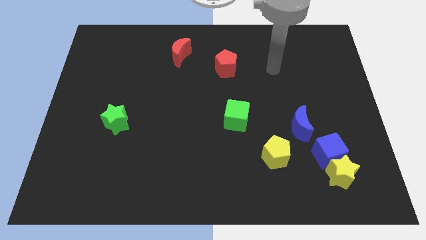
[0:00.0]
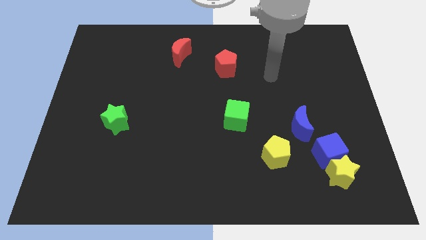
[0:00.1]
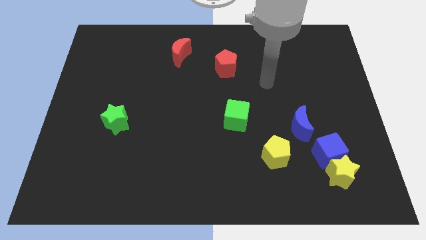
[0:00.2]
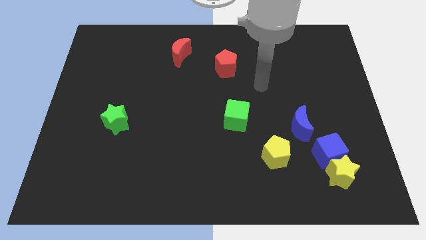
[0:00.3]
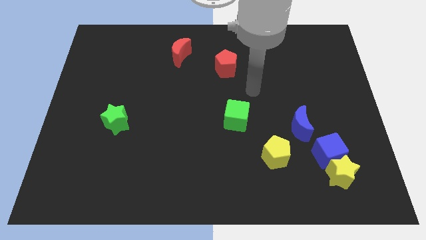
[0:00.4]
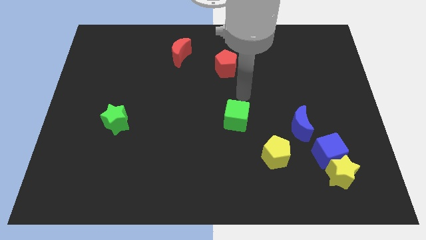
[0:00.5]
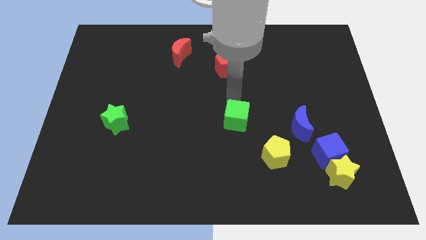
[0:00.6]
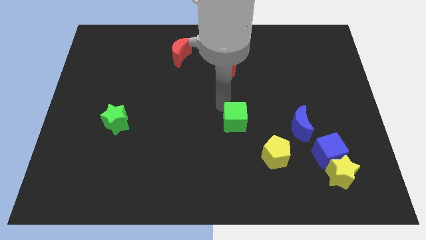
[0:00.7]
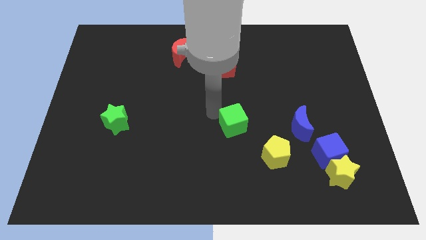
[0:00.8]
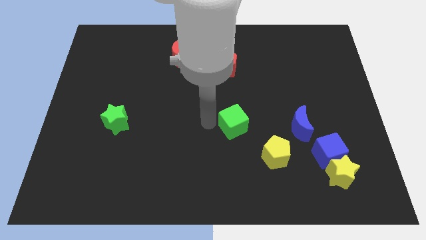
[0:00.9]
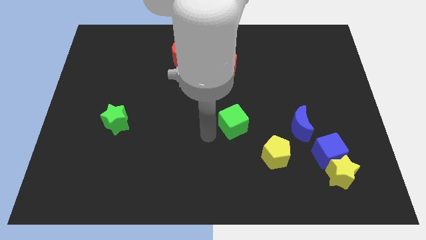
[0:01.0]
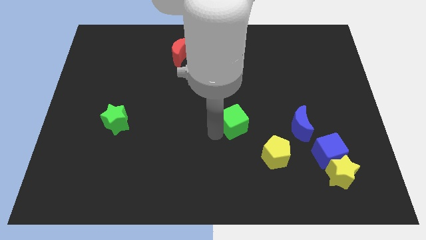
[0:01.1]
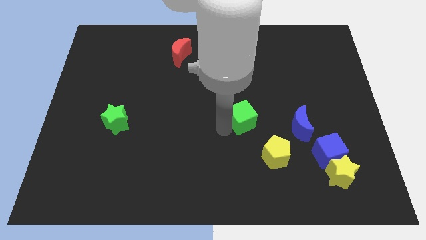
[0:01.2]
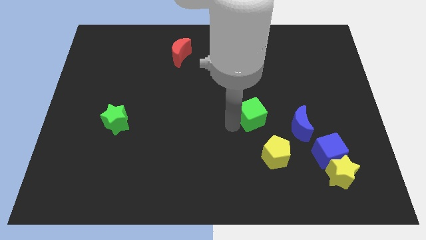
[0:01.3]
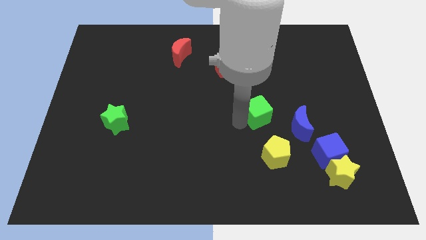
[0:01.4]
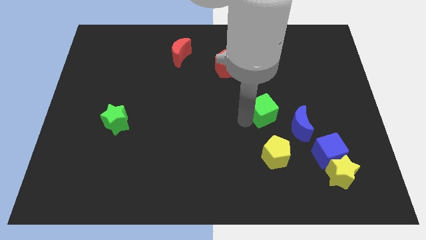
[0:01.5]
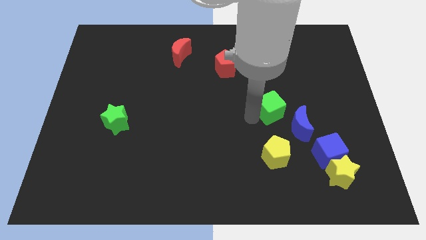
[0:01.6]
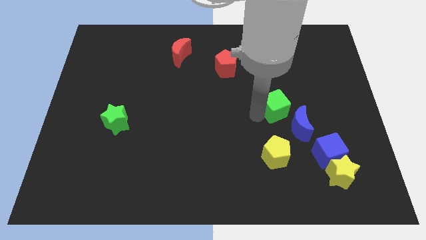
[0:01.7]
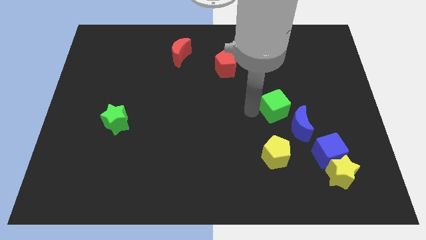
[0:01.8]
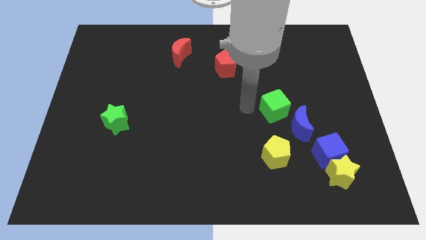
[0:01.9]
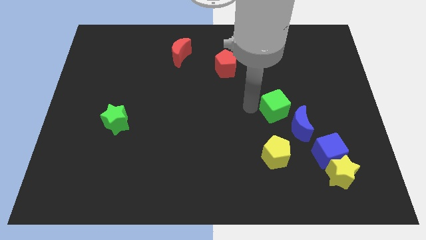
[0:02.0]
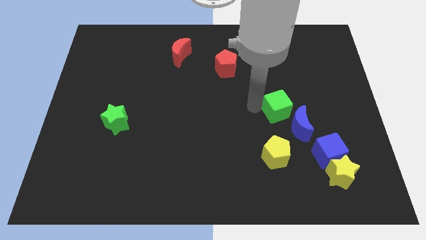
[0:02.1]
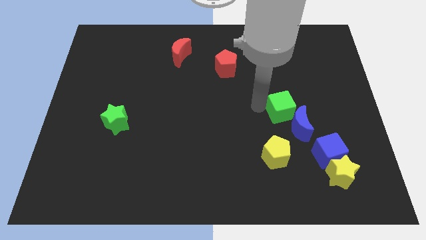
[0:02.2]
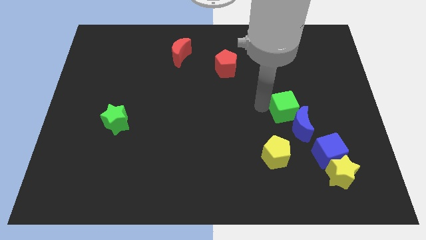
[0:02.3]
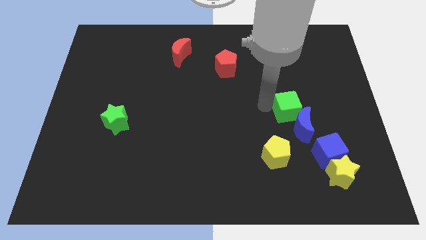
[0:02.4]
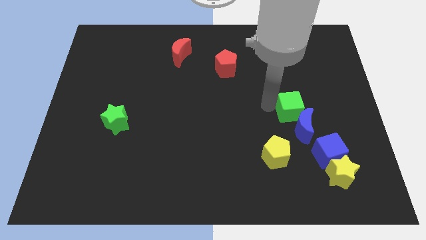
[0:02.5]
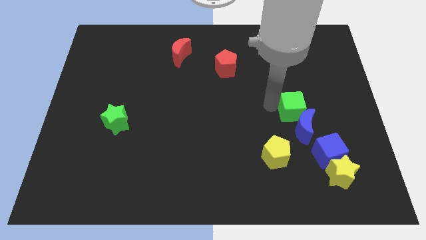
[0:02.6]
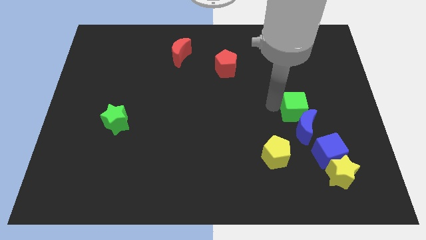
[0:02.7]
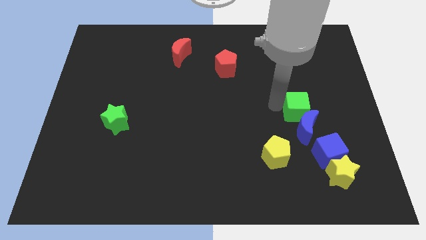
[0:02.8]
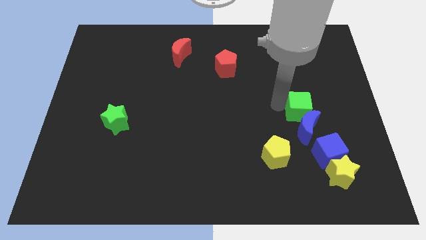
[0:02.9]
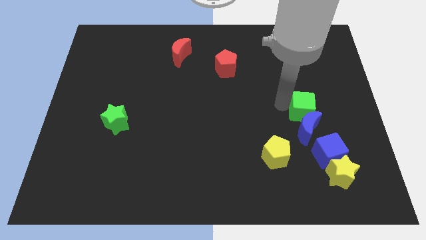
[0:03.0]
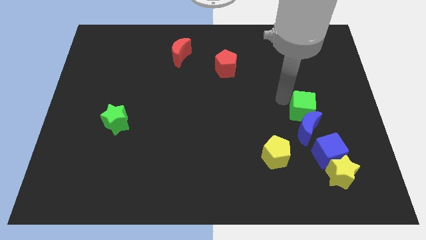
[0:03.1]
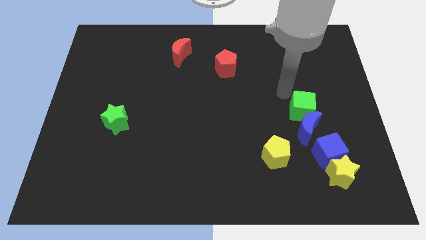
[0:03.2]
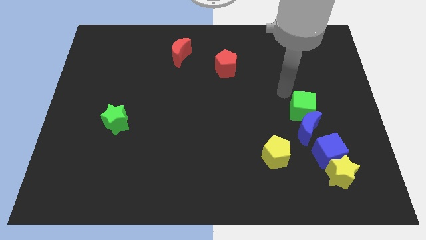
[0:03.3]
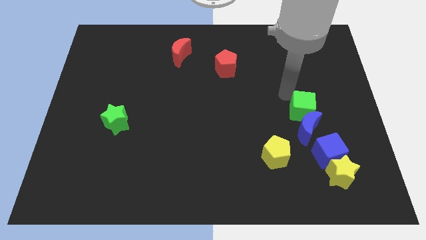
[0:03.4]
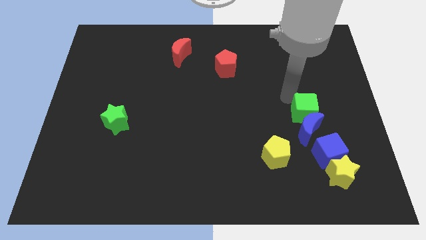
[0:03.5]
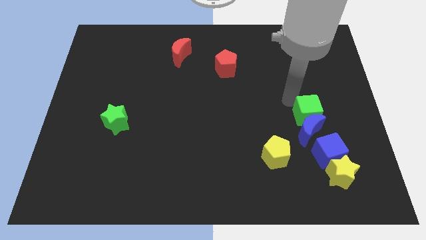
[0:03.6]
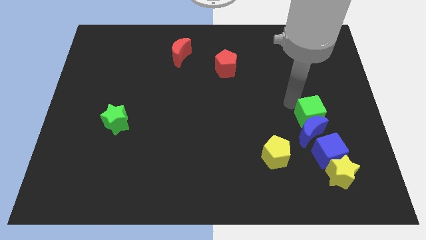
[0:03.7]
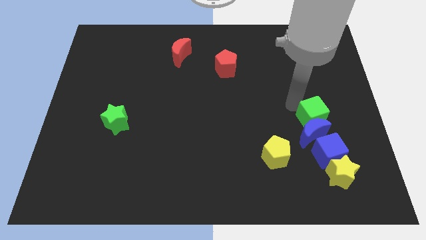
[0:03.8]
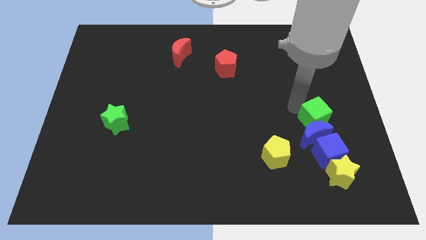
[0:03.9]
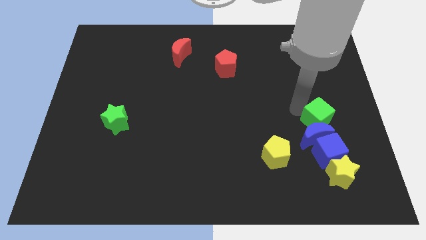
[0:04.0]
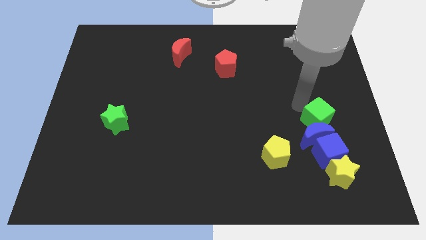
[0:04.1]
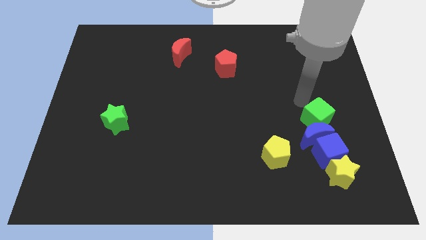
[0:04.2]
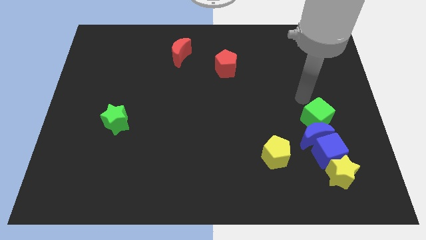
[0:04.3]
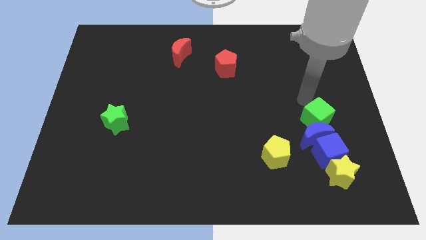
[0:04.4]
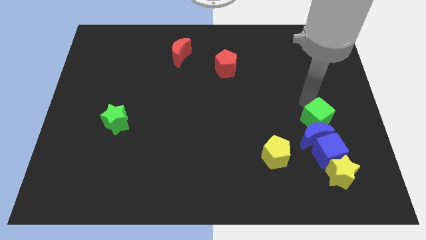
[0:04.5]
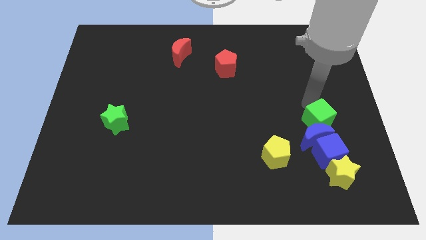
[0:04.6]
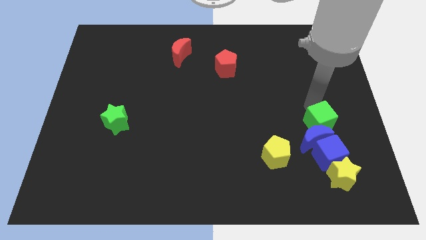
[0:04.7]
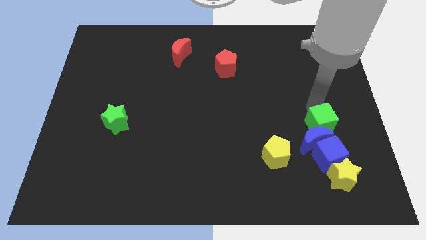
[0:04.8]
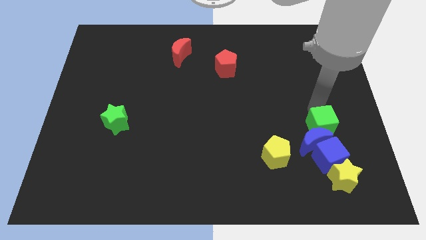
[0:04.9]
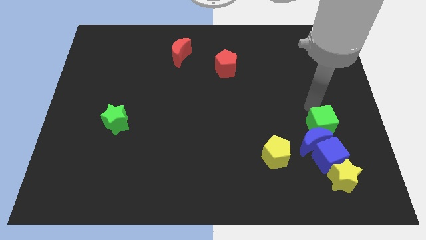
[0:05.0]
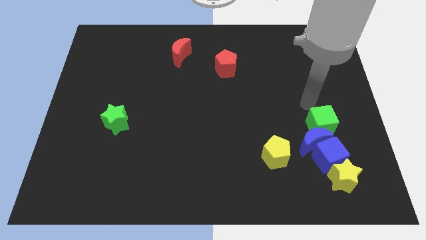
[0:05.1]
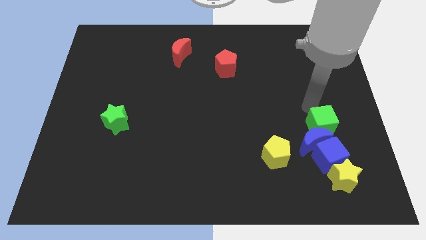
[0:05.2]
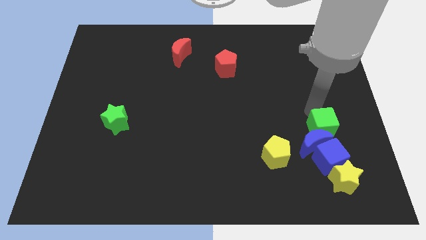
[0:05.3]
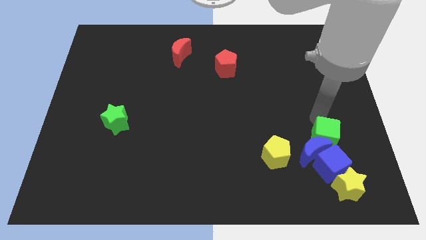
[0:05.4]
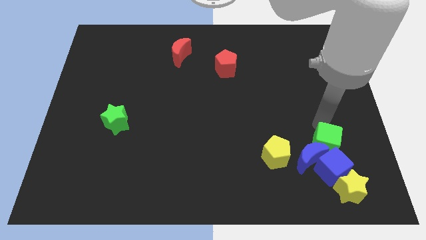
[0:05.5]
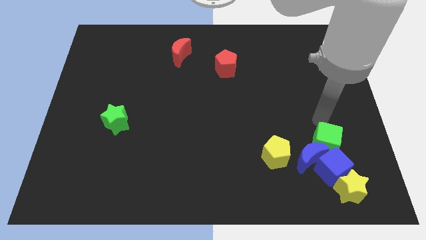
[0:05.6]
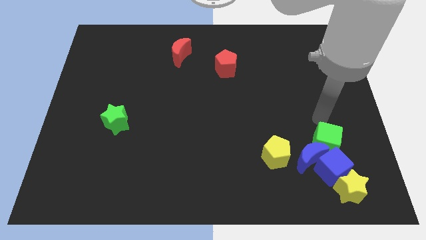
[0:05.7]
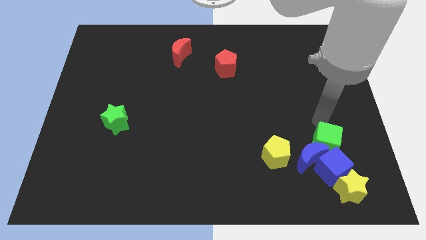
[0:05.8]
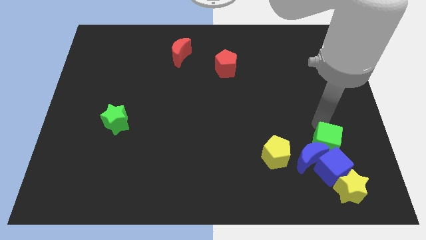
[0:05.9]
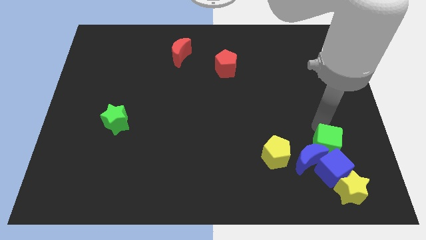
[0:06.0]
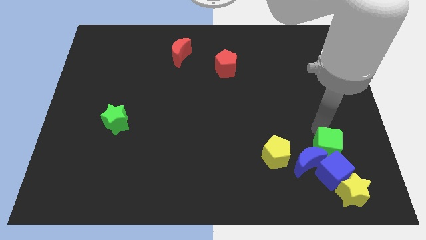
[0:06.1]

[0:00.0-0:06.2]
put the green cube next to the blue cube
